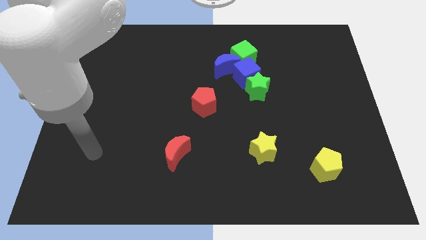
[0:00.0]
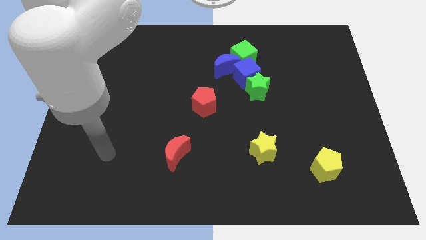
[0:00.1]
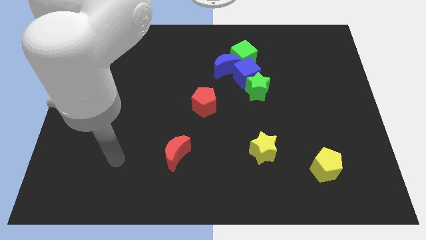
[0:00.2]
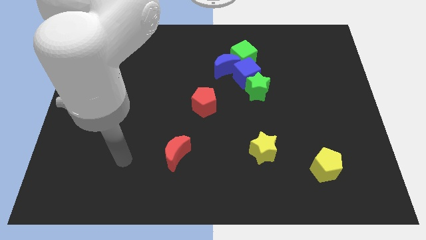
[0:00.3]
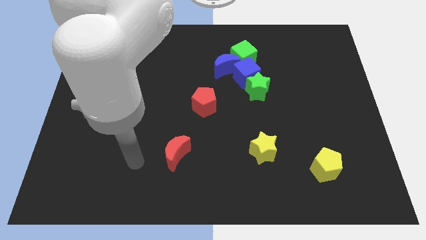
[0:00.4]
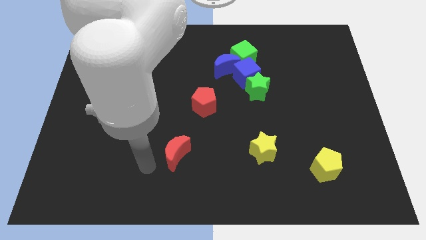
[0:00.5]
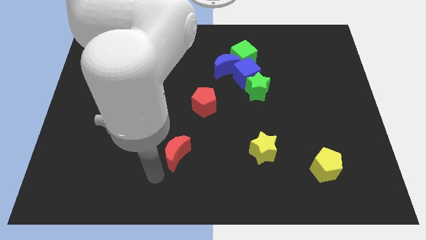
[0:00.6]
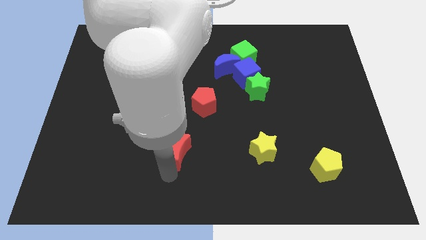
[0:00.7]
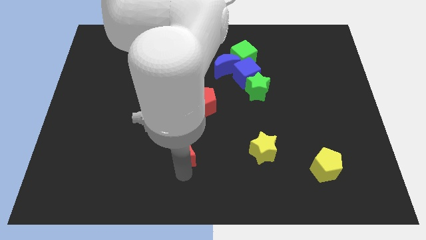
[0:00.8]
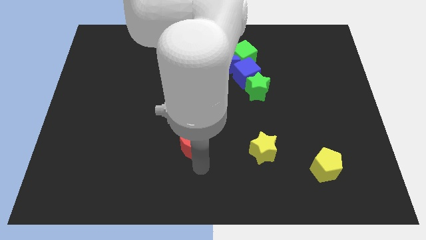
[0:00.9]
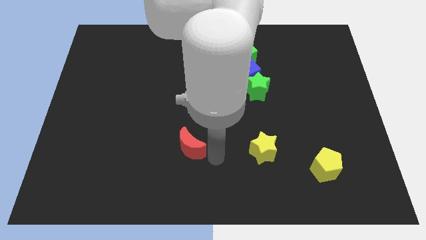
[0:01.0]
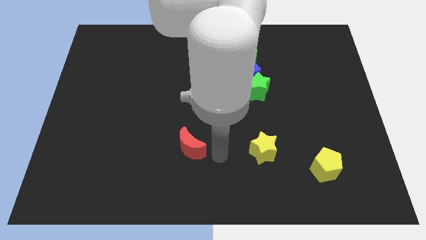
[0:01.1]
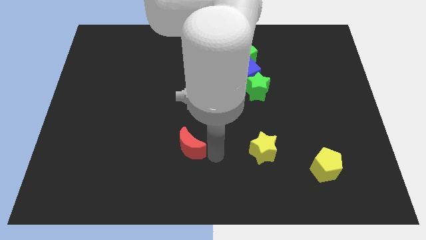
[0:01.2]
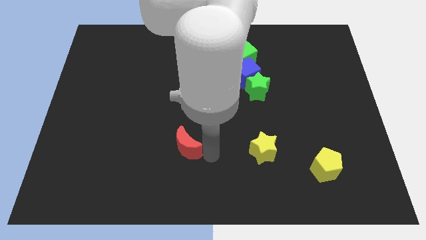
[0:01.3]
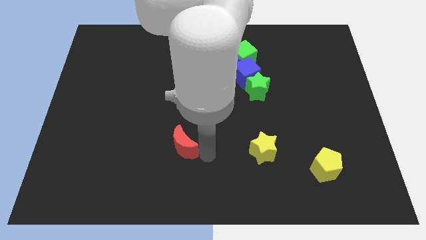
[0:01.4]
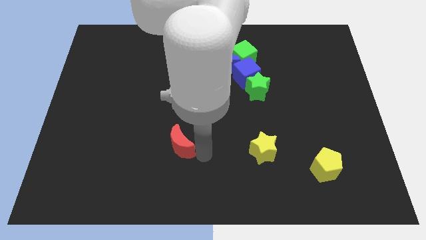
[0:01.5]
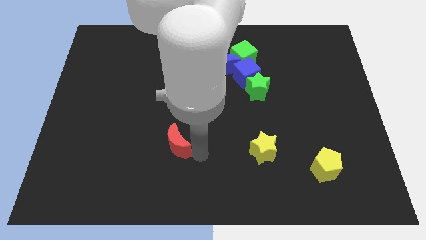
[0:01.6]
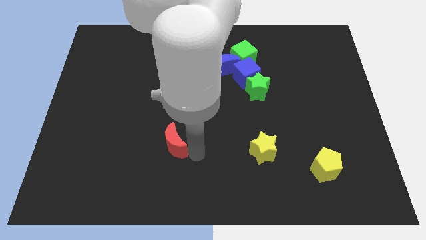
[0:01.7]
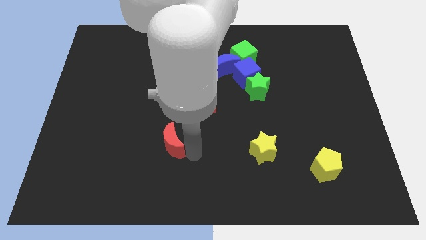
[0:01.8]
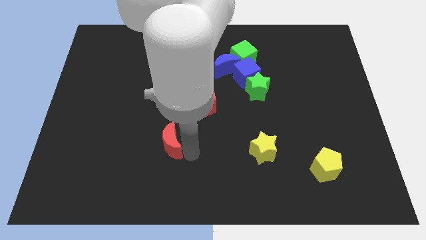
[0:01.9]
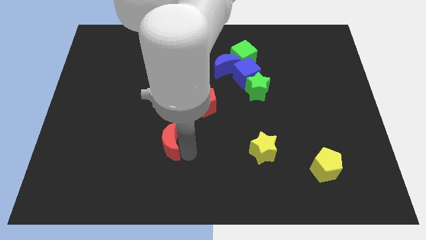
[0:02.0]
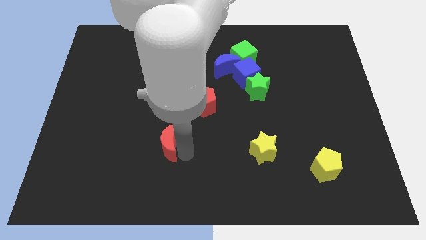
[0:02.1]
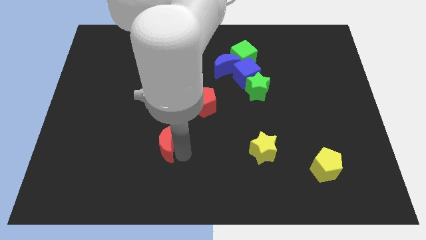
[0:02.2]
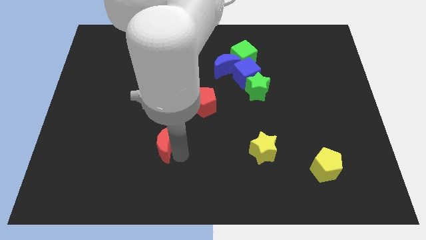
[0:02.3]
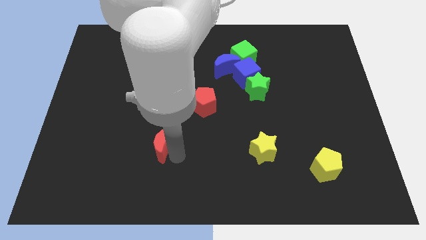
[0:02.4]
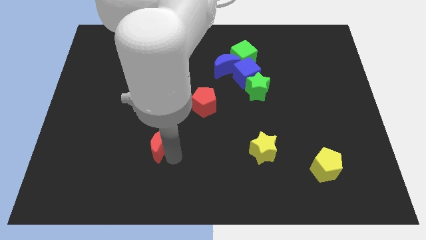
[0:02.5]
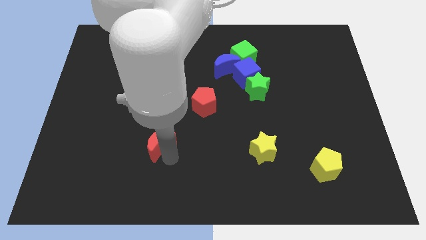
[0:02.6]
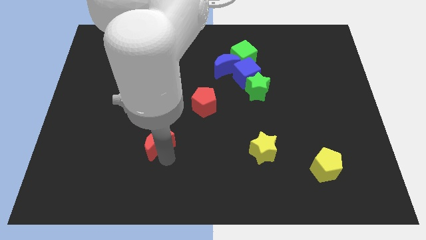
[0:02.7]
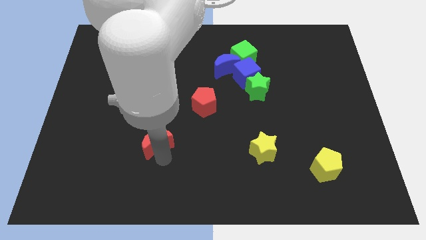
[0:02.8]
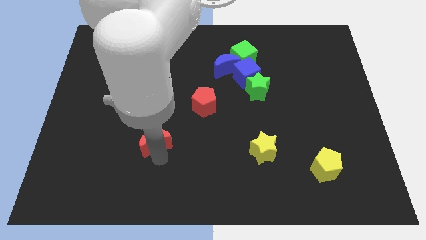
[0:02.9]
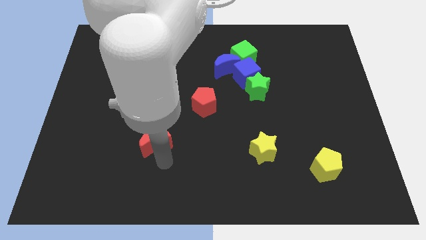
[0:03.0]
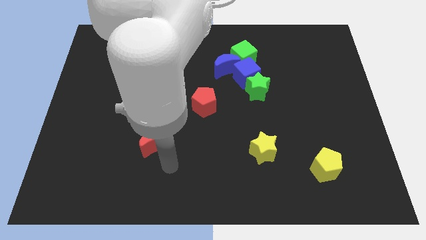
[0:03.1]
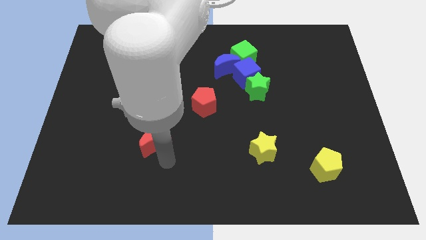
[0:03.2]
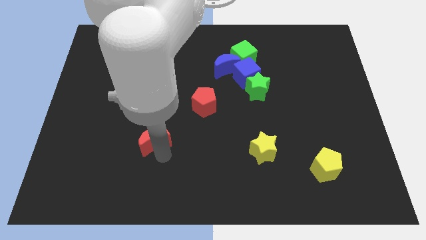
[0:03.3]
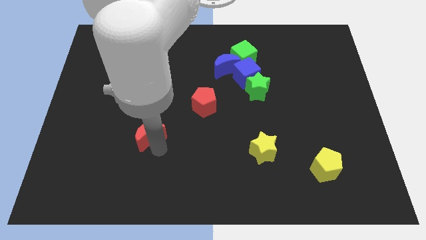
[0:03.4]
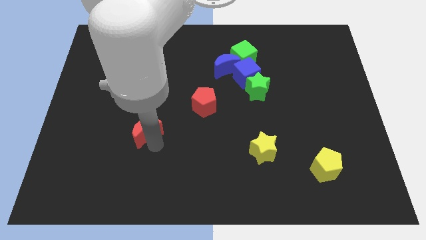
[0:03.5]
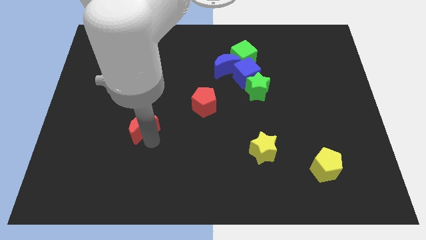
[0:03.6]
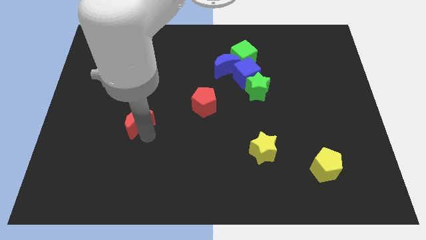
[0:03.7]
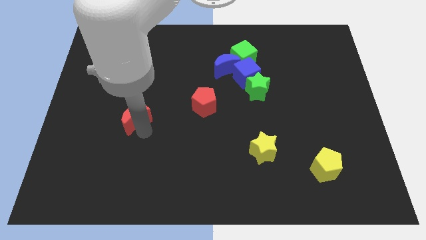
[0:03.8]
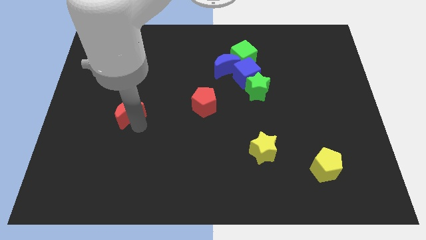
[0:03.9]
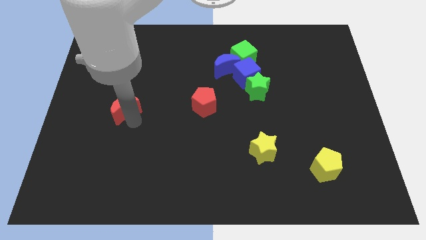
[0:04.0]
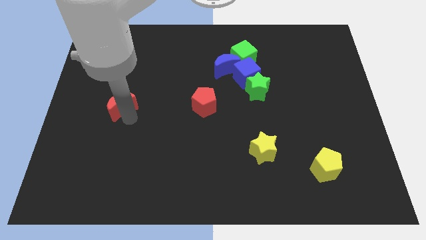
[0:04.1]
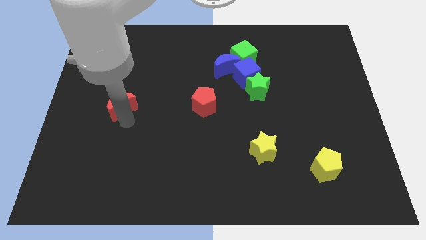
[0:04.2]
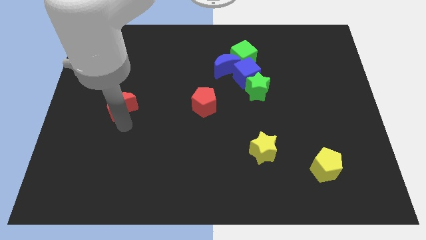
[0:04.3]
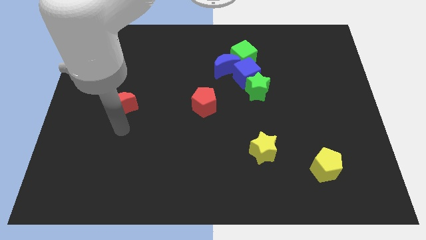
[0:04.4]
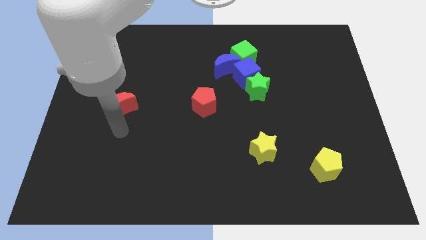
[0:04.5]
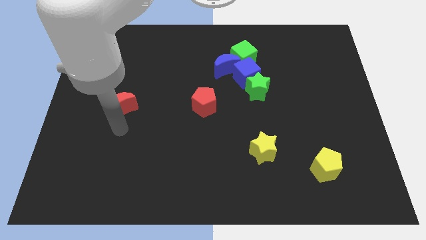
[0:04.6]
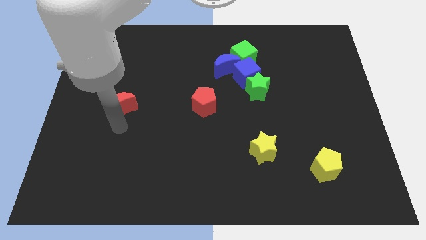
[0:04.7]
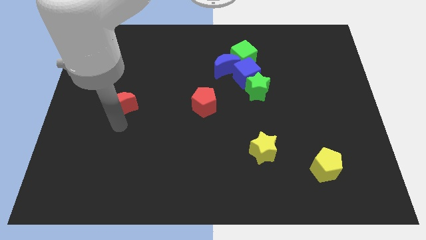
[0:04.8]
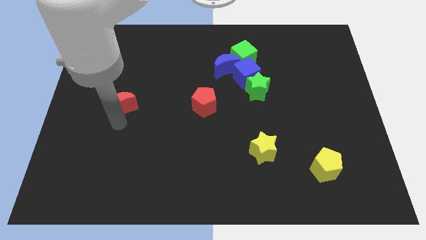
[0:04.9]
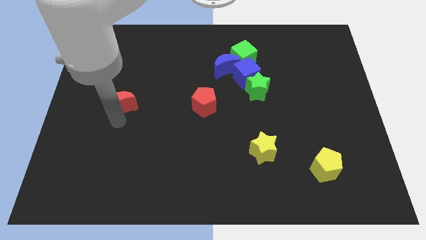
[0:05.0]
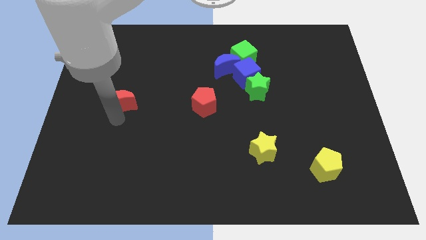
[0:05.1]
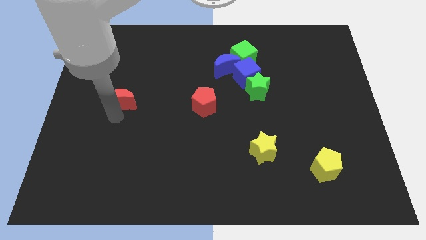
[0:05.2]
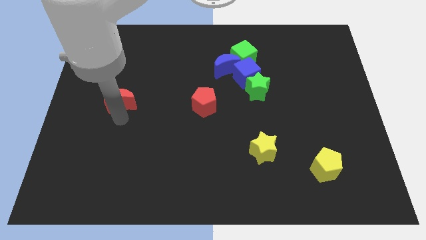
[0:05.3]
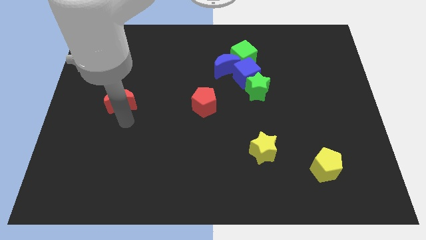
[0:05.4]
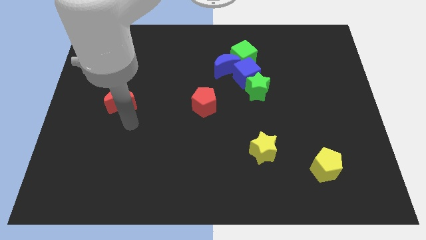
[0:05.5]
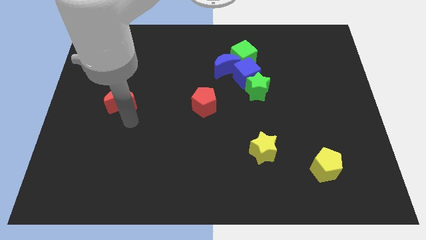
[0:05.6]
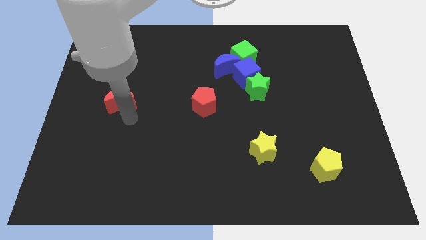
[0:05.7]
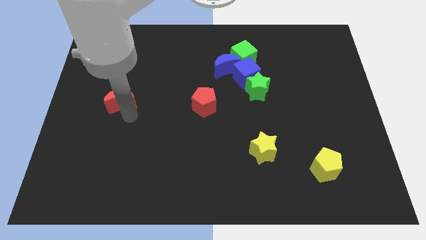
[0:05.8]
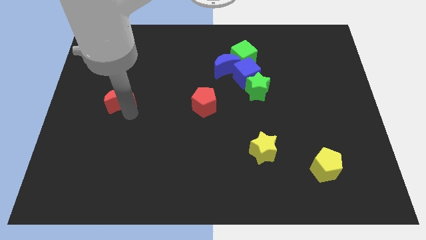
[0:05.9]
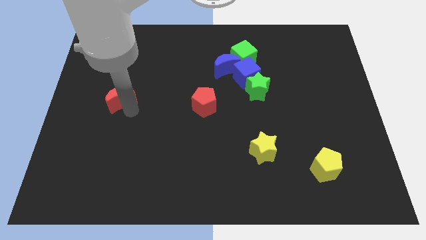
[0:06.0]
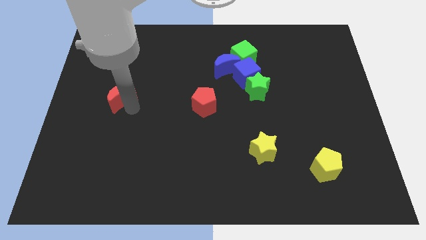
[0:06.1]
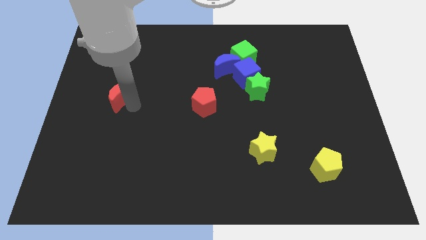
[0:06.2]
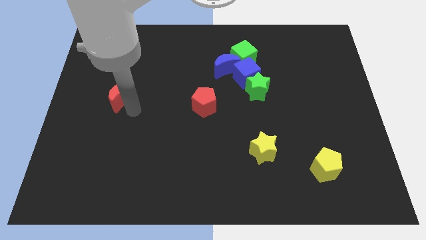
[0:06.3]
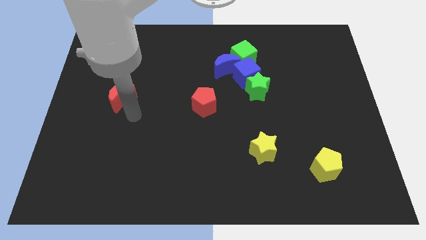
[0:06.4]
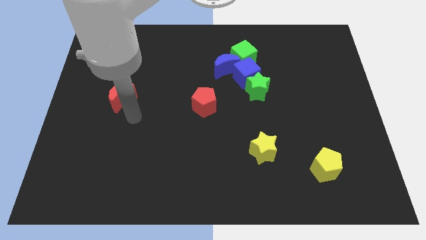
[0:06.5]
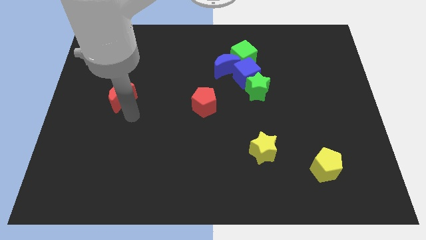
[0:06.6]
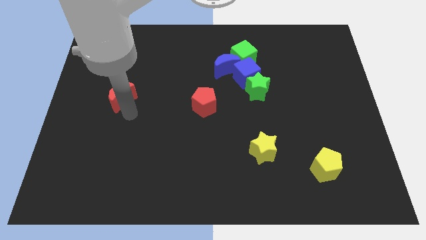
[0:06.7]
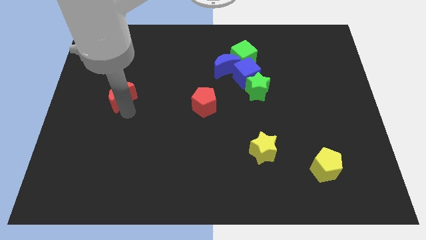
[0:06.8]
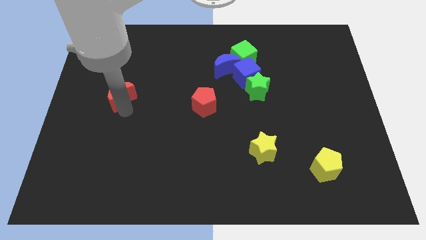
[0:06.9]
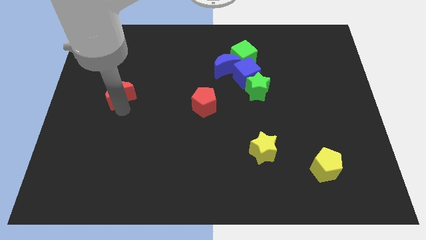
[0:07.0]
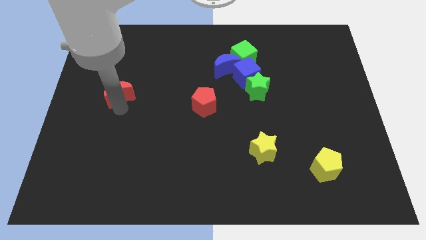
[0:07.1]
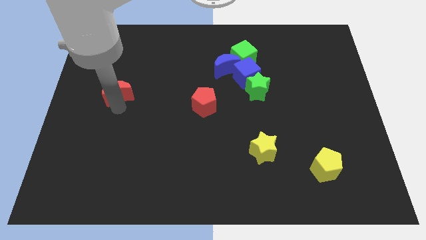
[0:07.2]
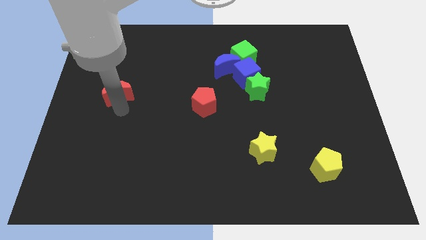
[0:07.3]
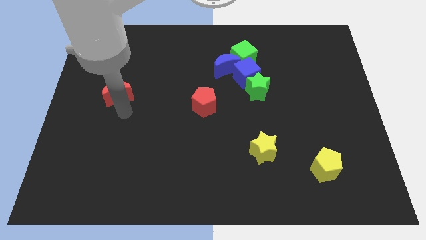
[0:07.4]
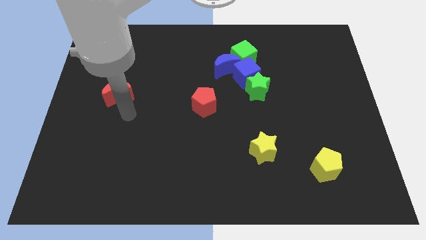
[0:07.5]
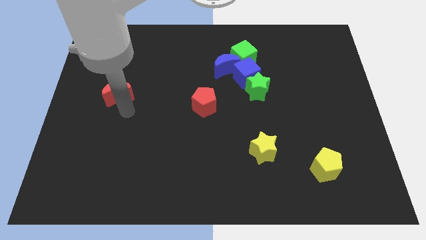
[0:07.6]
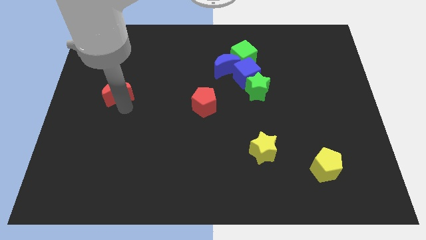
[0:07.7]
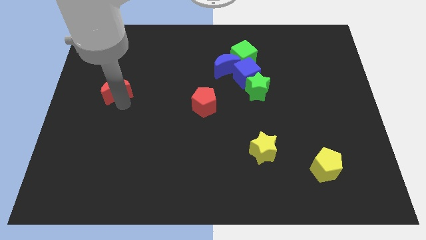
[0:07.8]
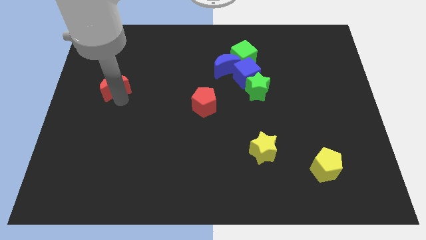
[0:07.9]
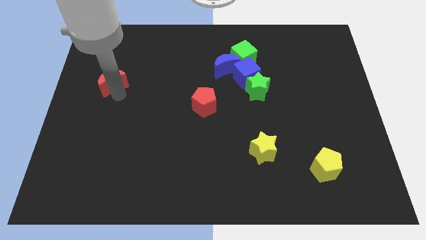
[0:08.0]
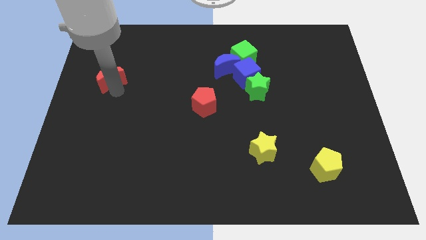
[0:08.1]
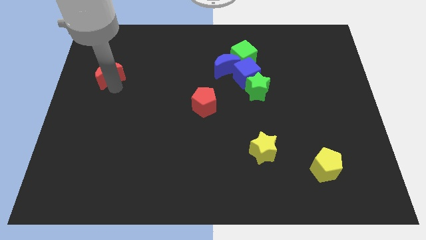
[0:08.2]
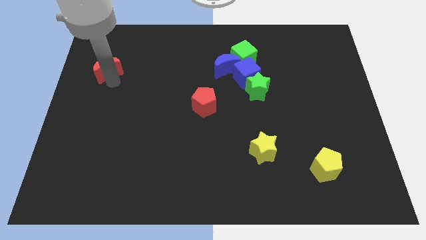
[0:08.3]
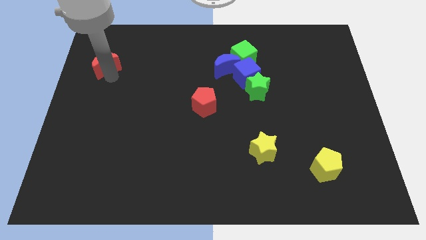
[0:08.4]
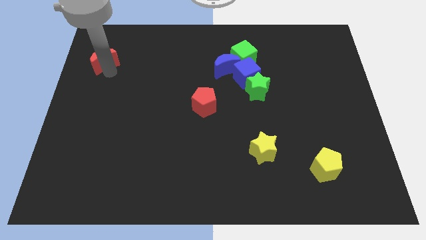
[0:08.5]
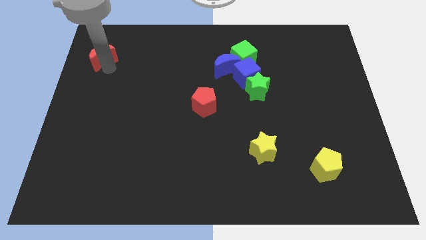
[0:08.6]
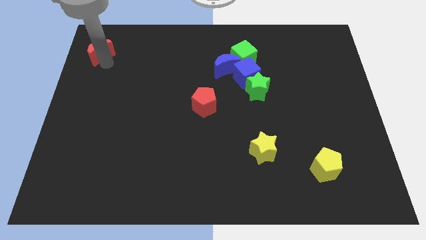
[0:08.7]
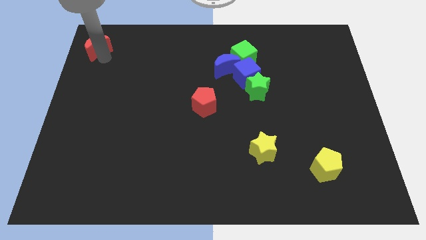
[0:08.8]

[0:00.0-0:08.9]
slide the red moon to the top left corner
